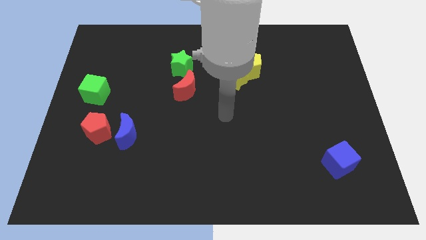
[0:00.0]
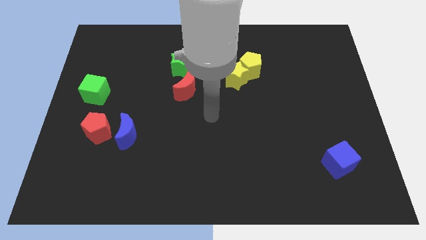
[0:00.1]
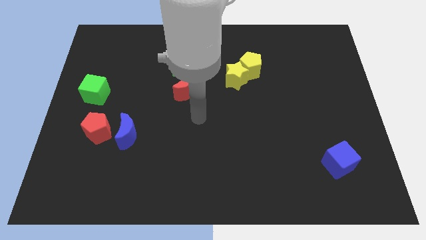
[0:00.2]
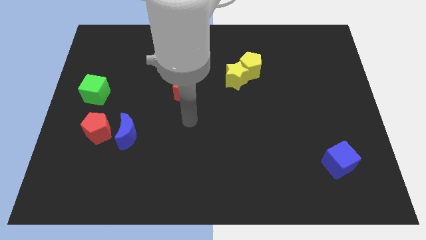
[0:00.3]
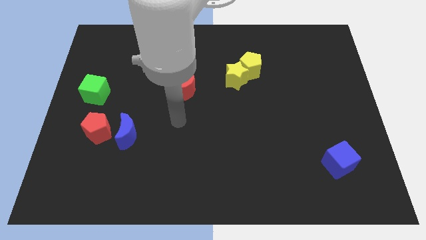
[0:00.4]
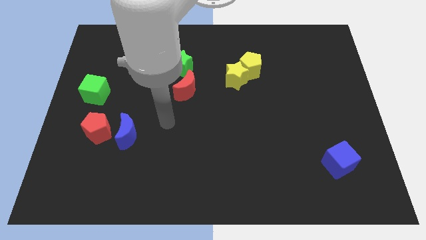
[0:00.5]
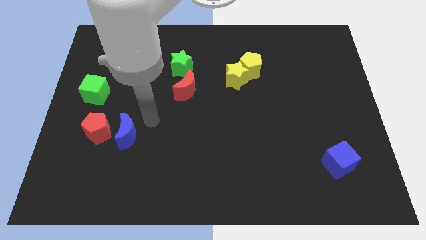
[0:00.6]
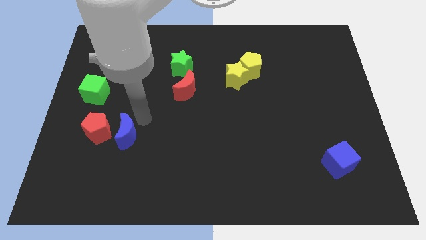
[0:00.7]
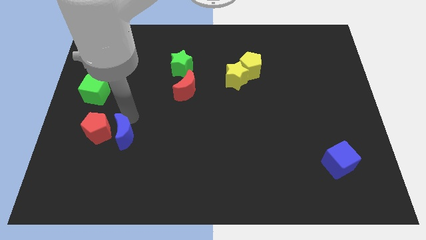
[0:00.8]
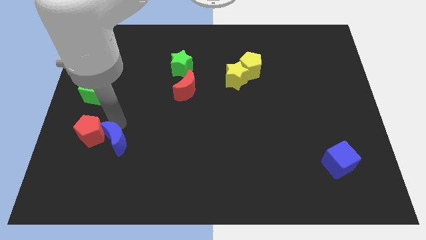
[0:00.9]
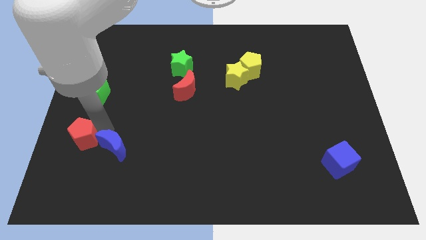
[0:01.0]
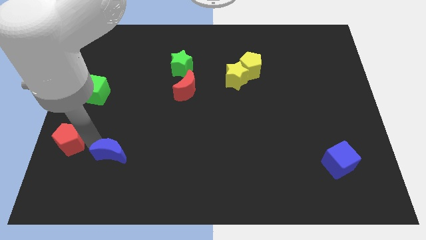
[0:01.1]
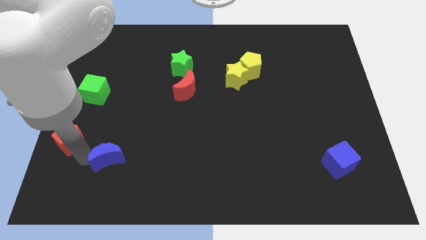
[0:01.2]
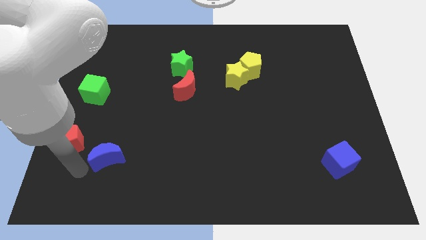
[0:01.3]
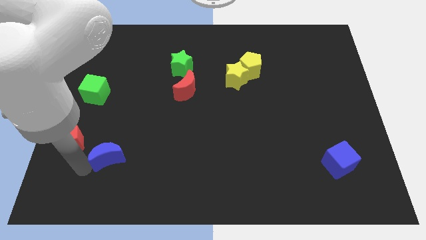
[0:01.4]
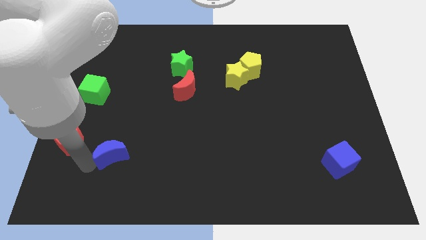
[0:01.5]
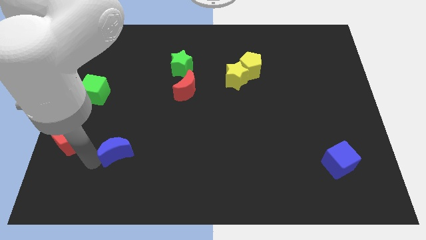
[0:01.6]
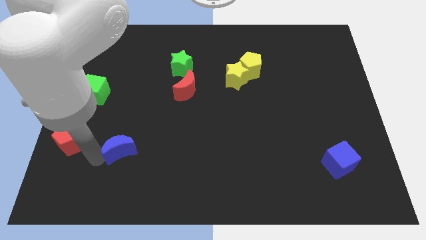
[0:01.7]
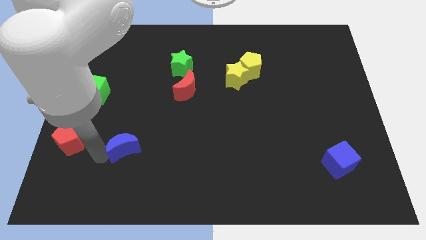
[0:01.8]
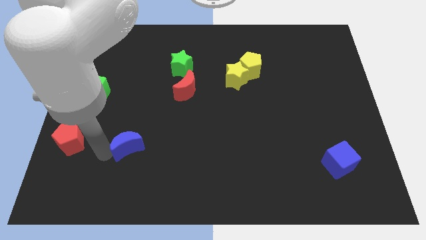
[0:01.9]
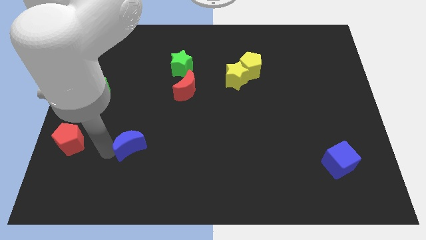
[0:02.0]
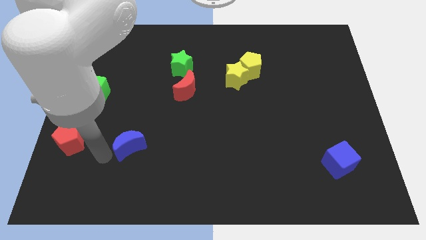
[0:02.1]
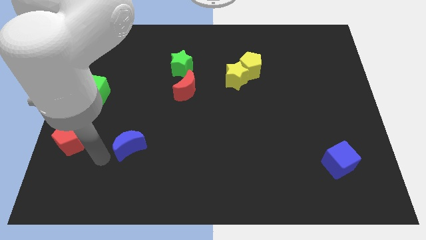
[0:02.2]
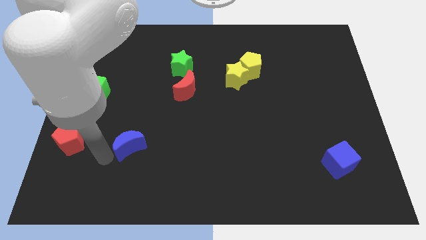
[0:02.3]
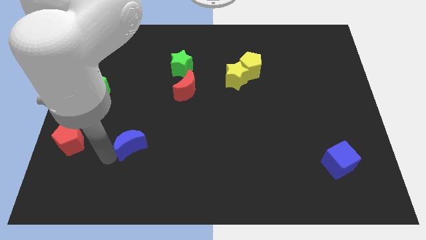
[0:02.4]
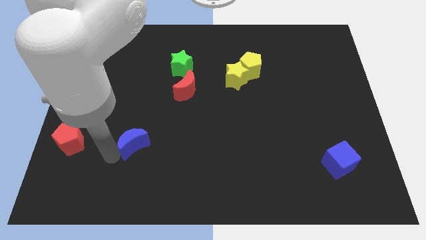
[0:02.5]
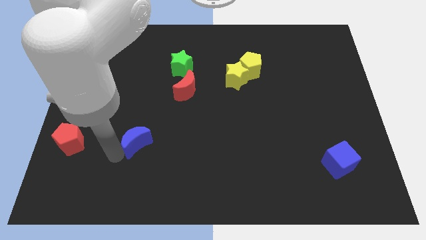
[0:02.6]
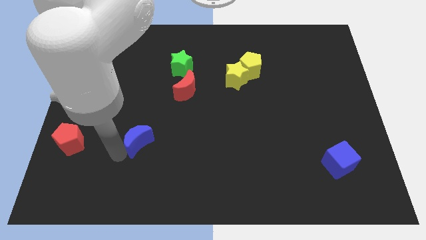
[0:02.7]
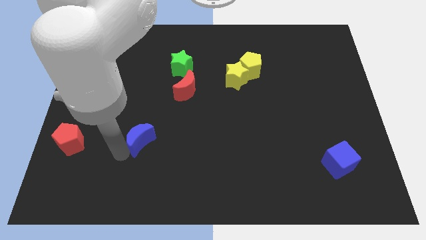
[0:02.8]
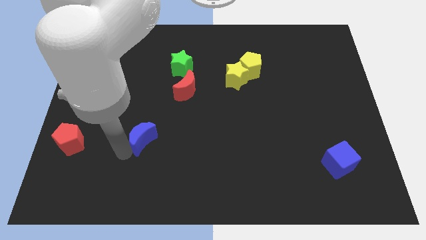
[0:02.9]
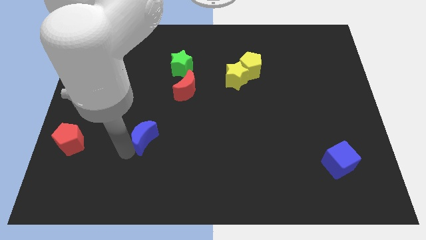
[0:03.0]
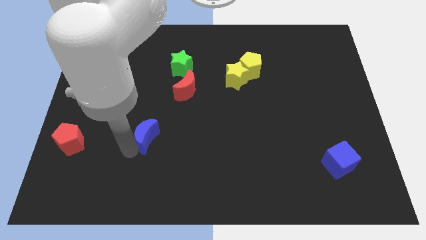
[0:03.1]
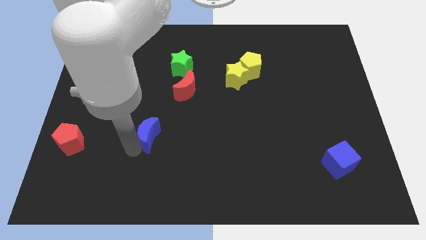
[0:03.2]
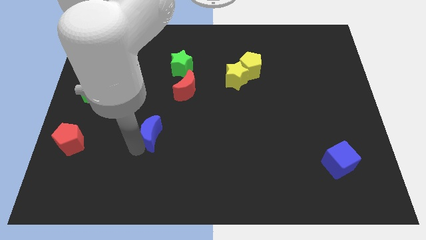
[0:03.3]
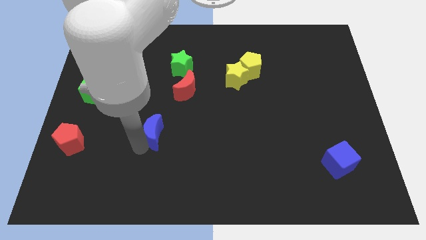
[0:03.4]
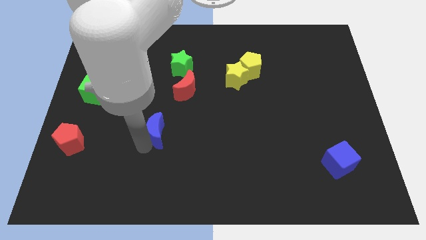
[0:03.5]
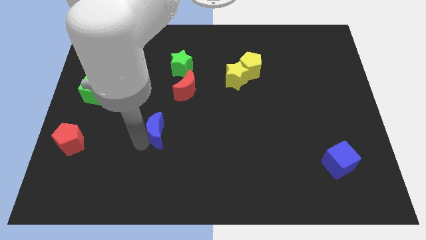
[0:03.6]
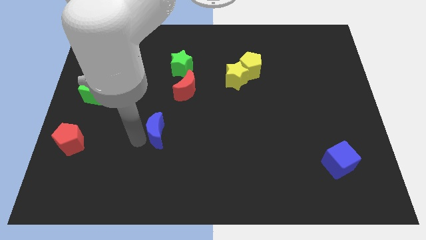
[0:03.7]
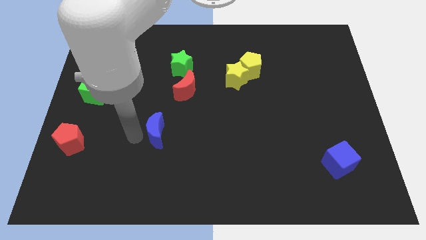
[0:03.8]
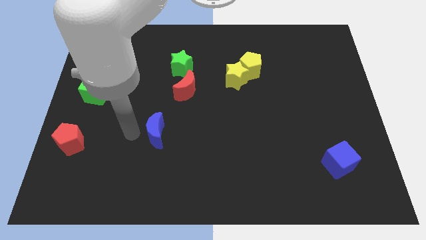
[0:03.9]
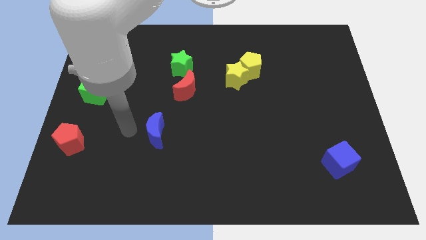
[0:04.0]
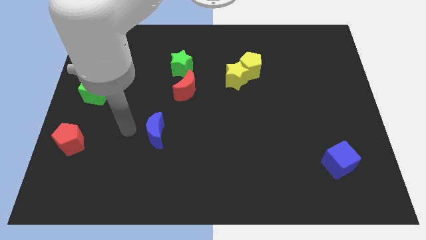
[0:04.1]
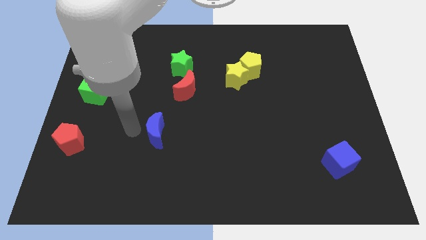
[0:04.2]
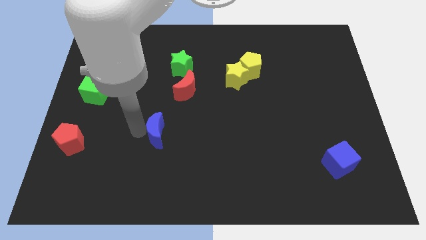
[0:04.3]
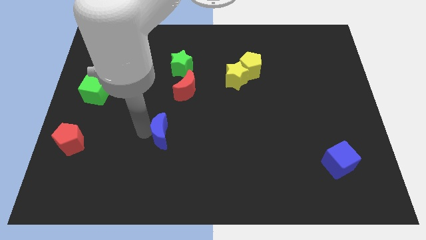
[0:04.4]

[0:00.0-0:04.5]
slide the blue moon a little bit right

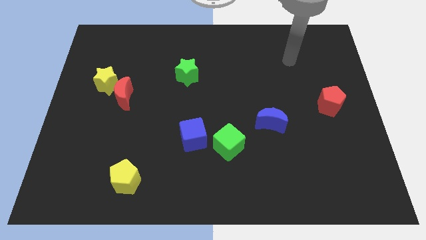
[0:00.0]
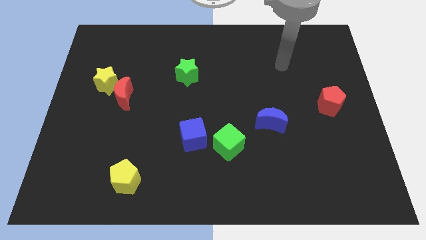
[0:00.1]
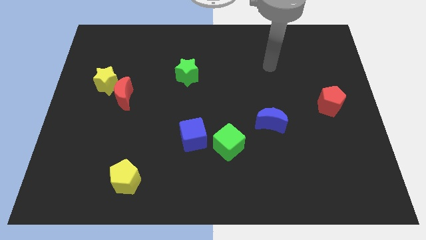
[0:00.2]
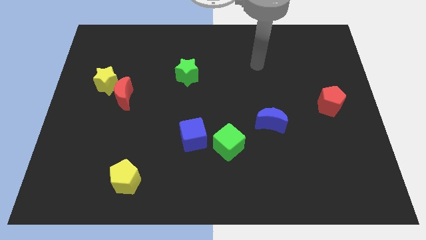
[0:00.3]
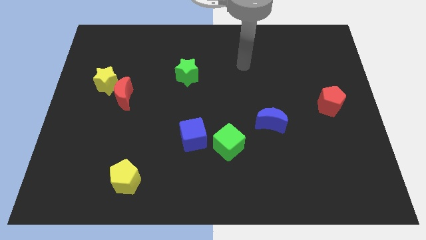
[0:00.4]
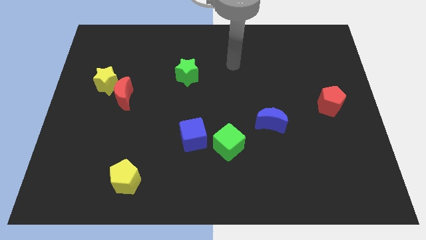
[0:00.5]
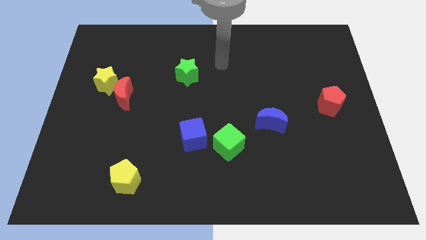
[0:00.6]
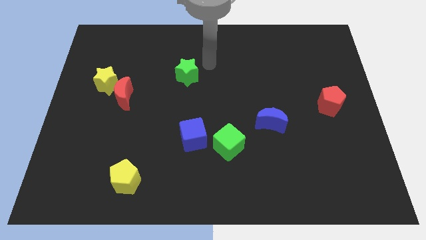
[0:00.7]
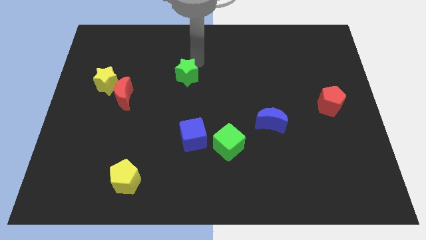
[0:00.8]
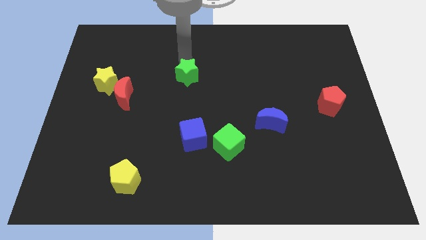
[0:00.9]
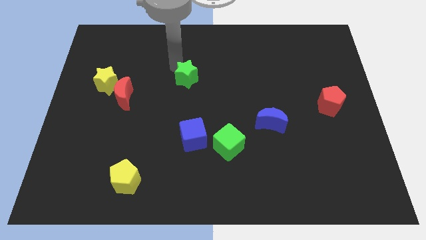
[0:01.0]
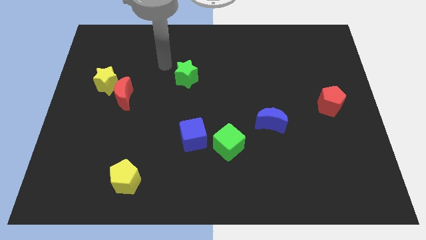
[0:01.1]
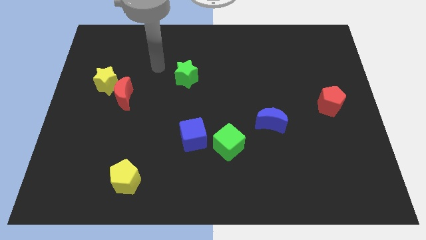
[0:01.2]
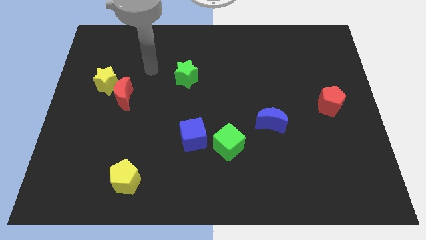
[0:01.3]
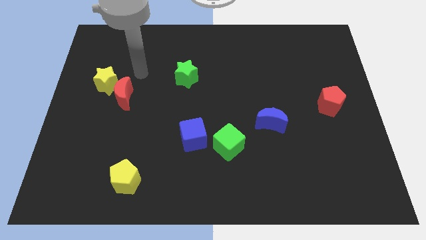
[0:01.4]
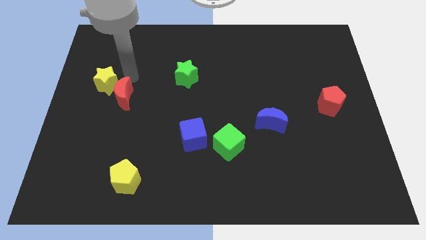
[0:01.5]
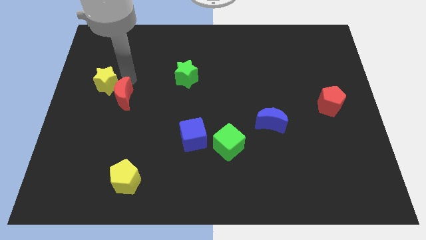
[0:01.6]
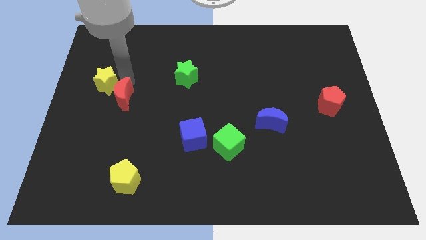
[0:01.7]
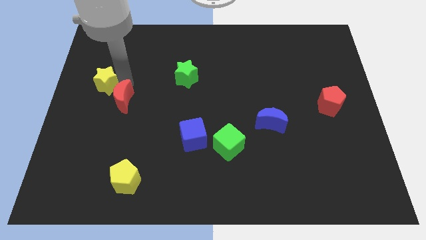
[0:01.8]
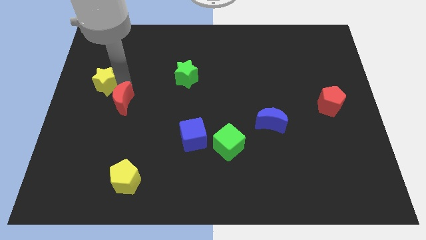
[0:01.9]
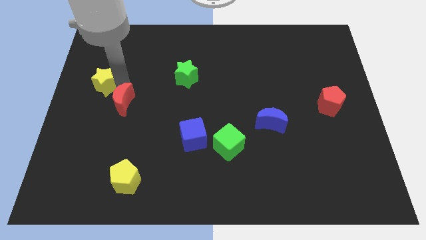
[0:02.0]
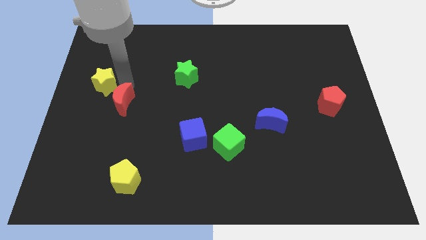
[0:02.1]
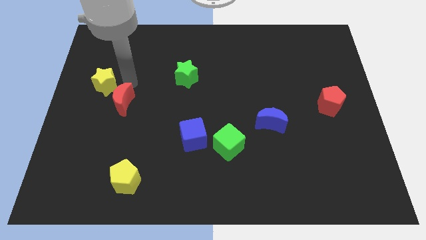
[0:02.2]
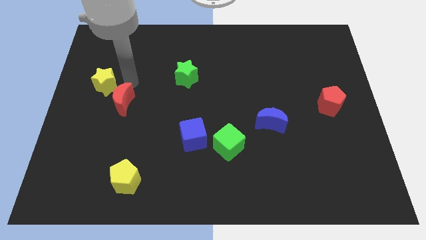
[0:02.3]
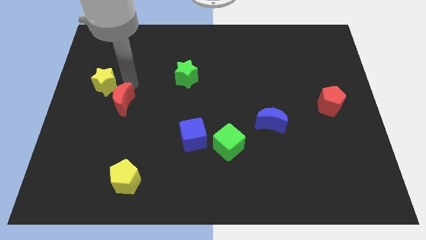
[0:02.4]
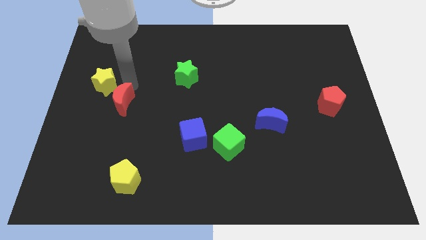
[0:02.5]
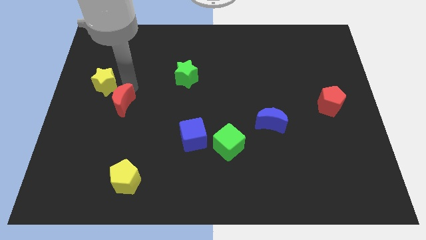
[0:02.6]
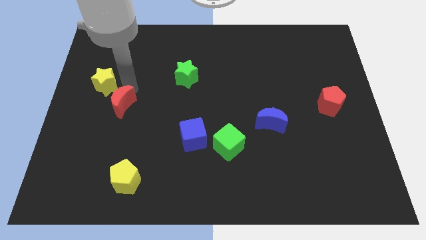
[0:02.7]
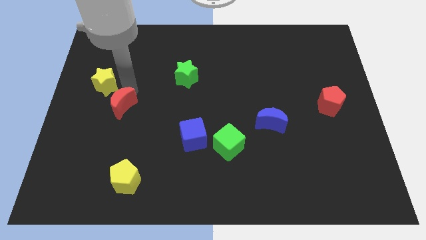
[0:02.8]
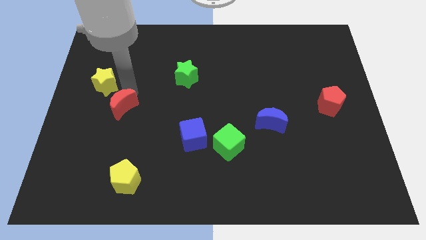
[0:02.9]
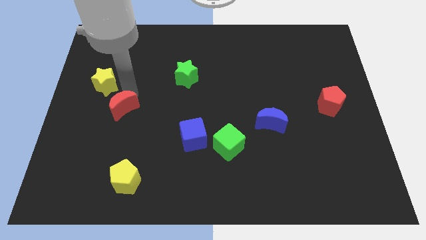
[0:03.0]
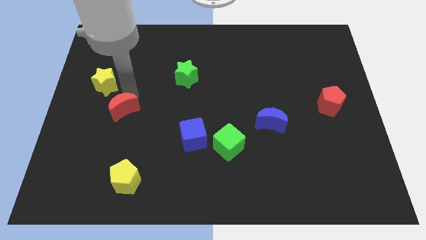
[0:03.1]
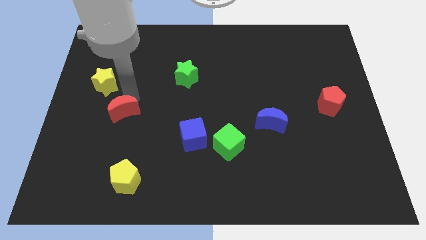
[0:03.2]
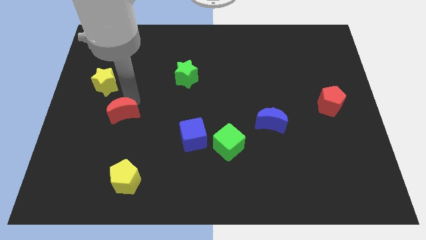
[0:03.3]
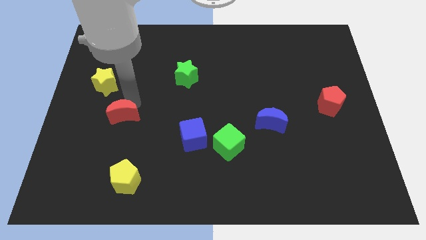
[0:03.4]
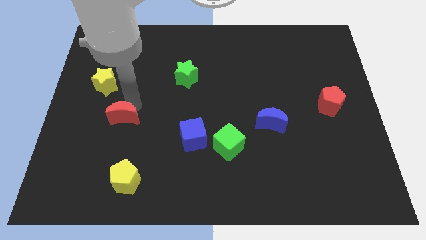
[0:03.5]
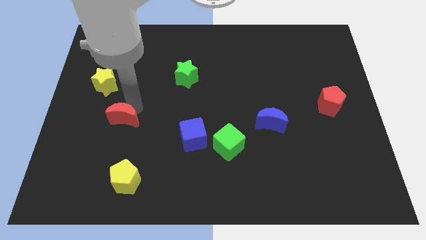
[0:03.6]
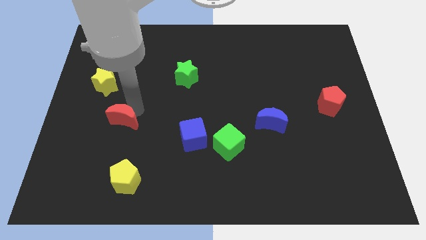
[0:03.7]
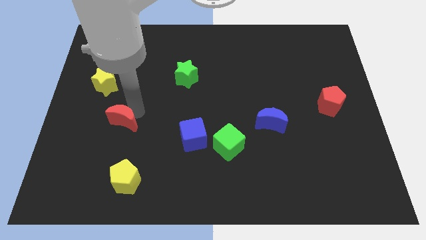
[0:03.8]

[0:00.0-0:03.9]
slightly push the red moon down

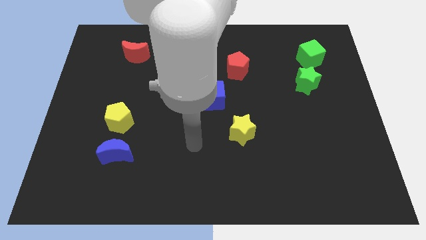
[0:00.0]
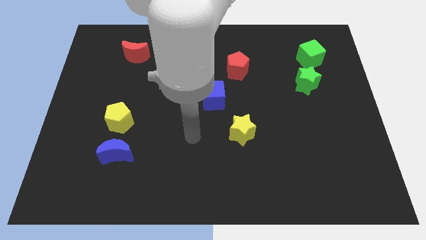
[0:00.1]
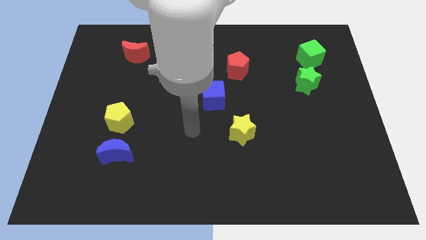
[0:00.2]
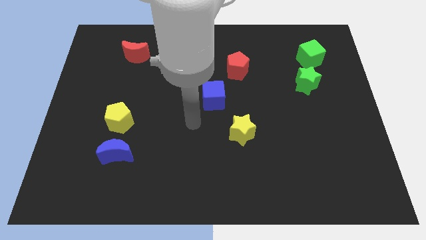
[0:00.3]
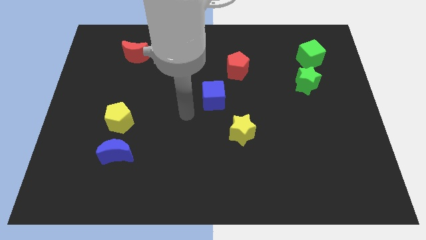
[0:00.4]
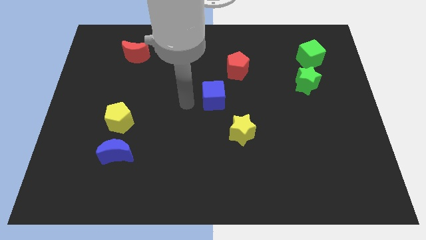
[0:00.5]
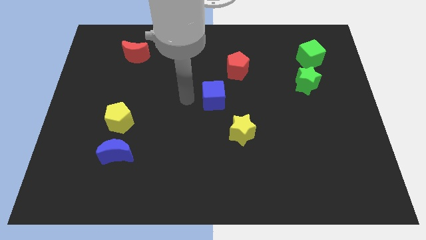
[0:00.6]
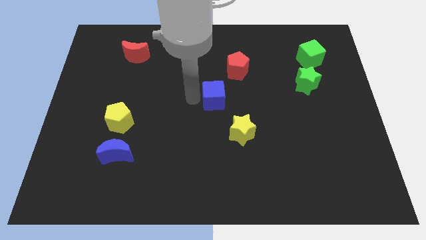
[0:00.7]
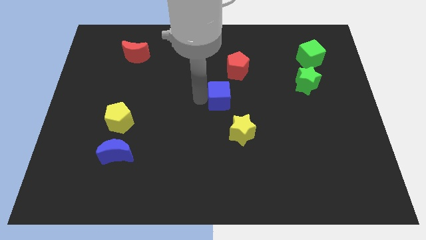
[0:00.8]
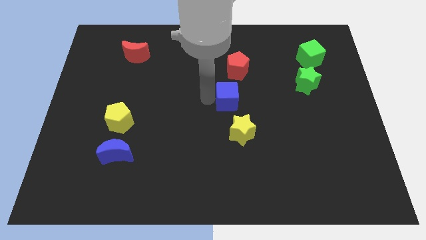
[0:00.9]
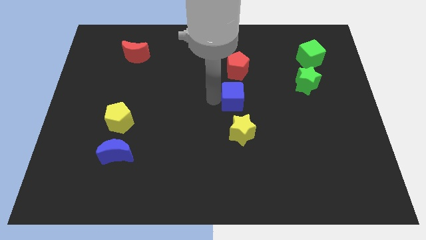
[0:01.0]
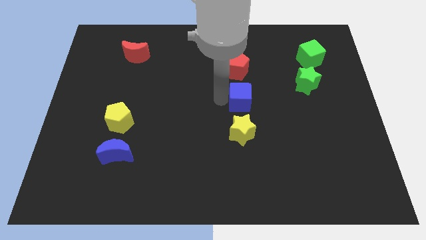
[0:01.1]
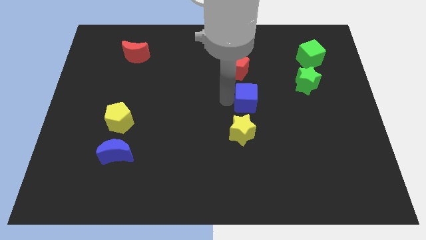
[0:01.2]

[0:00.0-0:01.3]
push the blue cube somewhat to the right
